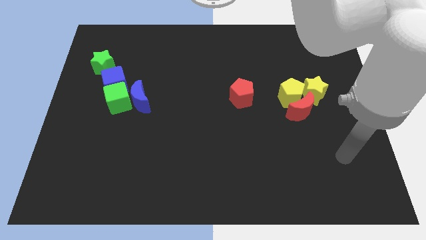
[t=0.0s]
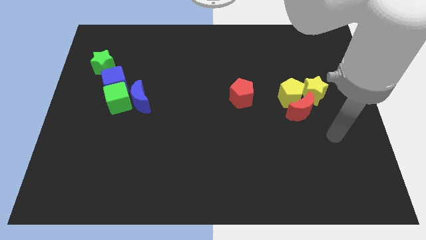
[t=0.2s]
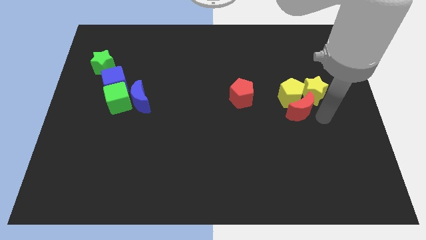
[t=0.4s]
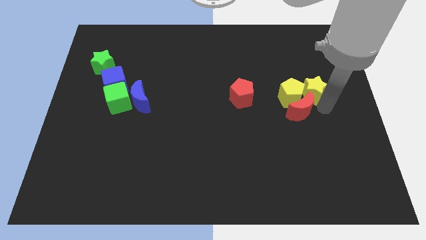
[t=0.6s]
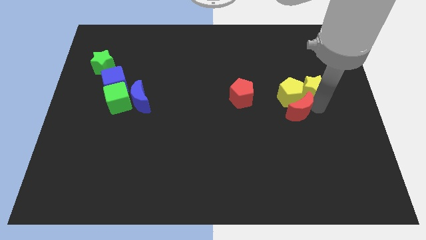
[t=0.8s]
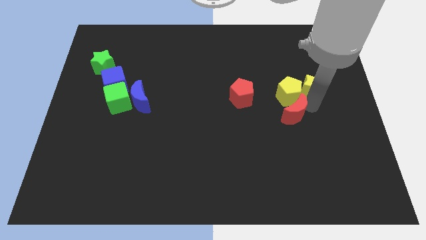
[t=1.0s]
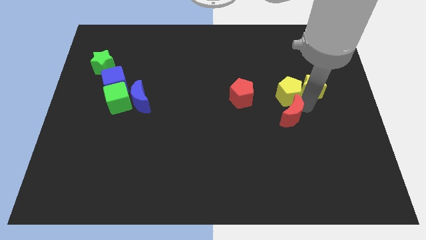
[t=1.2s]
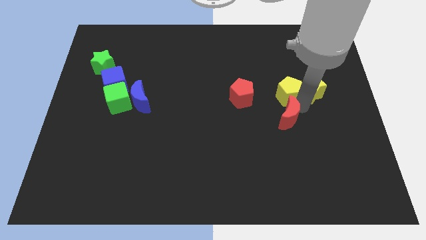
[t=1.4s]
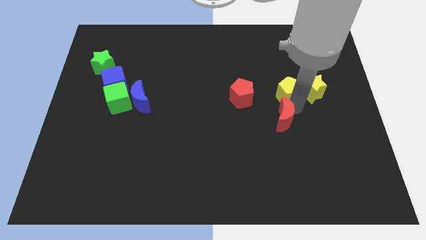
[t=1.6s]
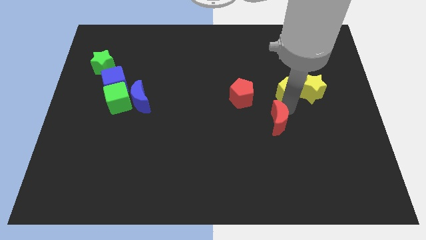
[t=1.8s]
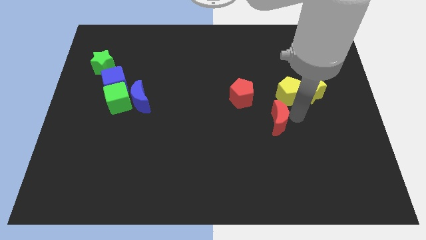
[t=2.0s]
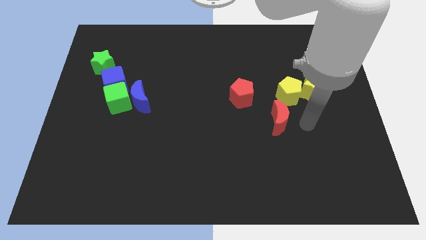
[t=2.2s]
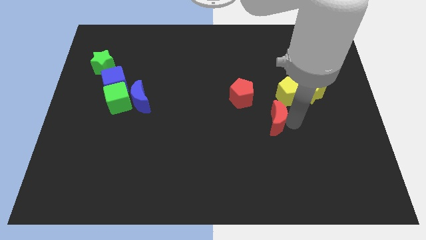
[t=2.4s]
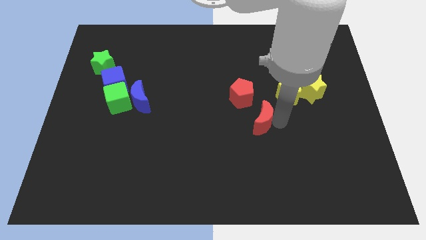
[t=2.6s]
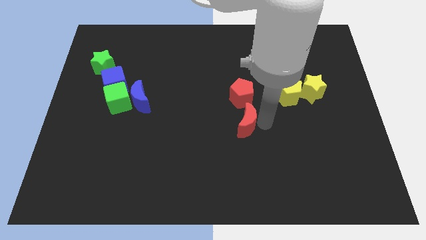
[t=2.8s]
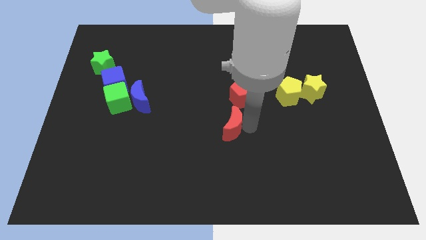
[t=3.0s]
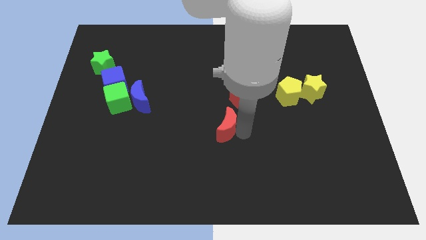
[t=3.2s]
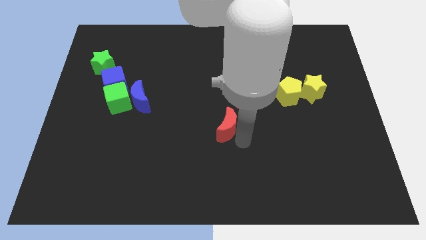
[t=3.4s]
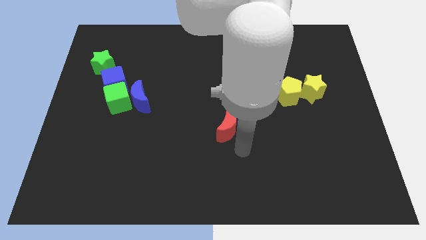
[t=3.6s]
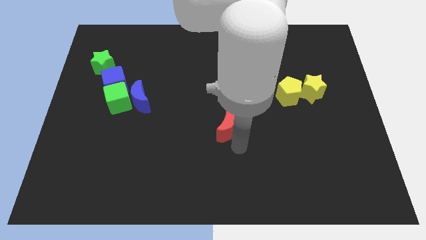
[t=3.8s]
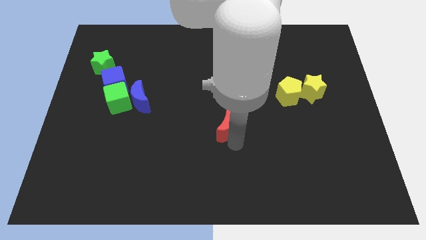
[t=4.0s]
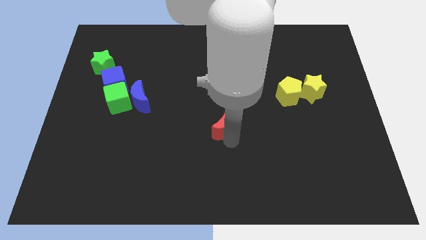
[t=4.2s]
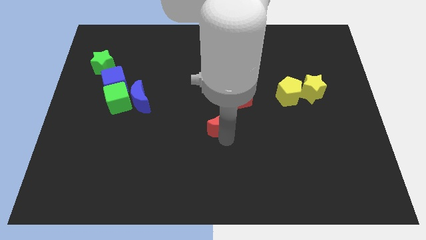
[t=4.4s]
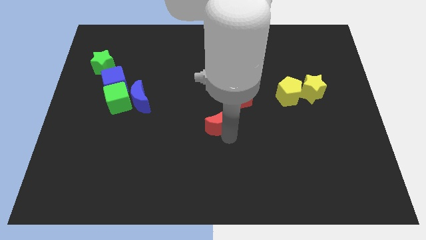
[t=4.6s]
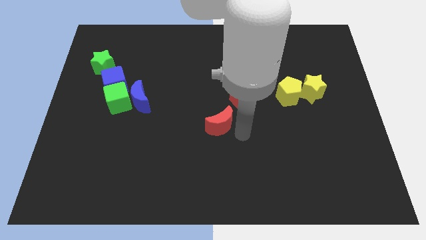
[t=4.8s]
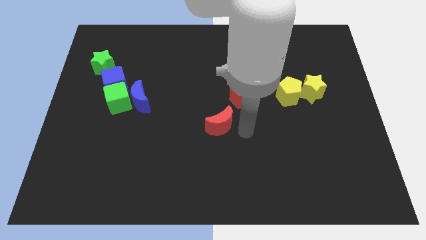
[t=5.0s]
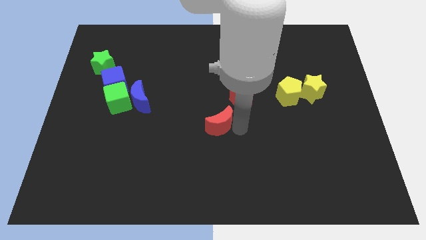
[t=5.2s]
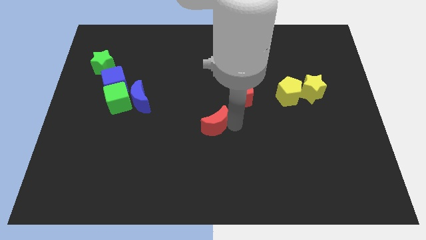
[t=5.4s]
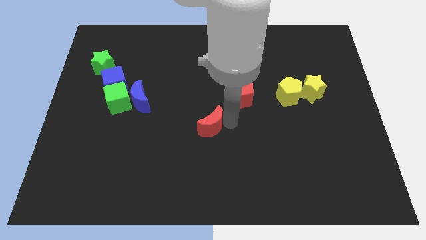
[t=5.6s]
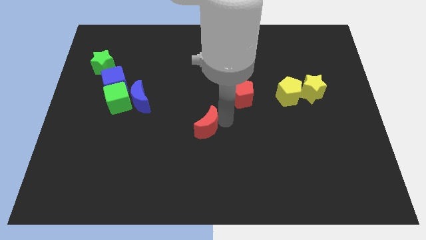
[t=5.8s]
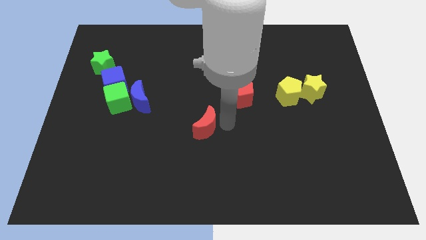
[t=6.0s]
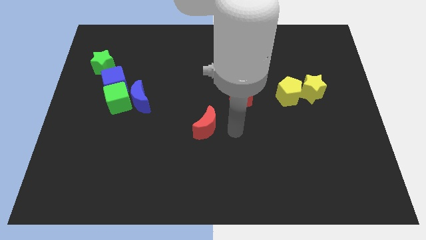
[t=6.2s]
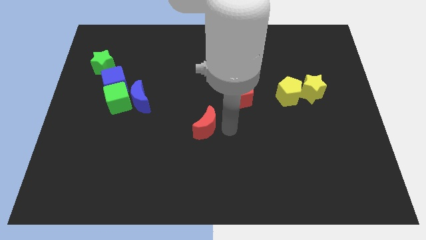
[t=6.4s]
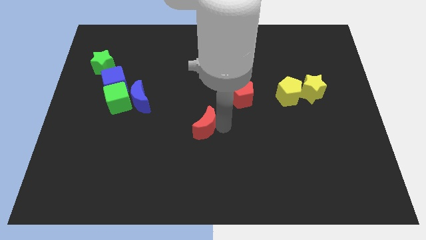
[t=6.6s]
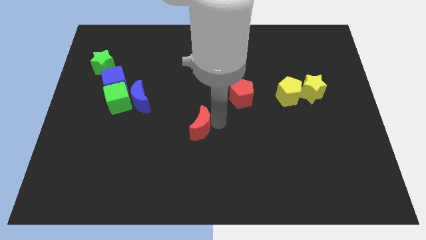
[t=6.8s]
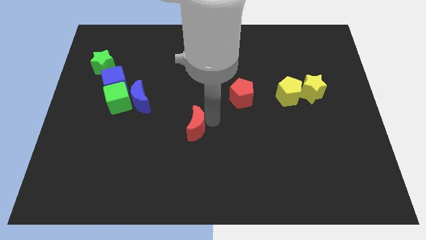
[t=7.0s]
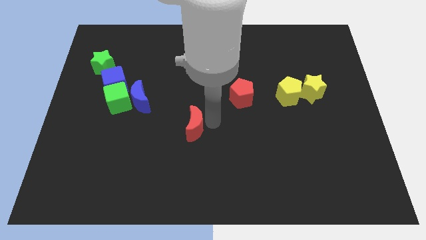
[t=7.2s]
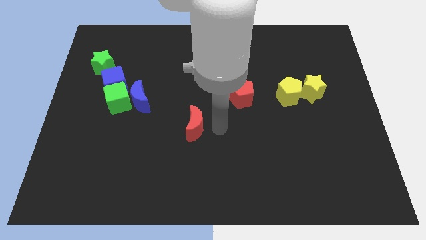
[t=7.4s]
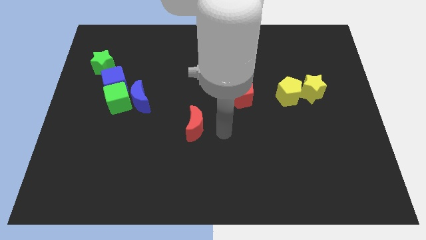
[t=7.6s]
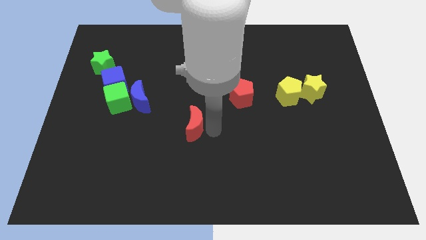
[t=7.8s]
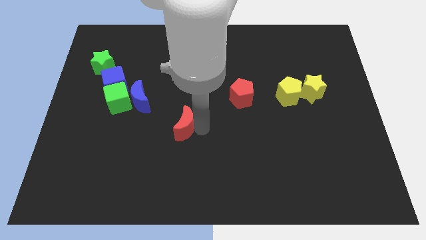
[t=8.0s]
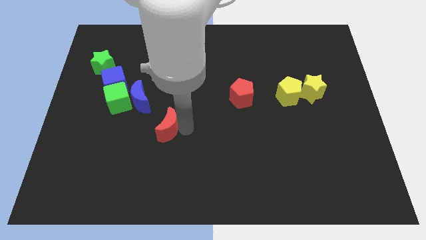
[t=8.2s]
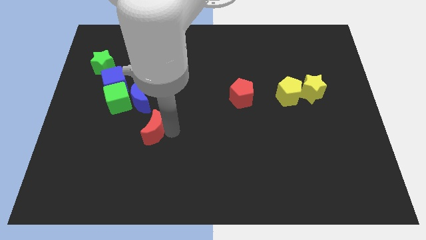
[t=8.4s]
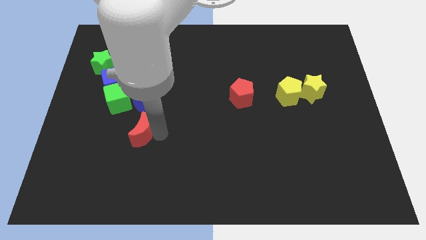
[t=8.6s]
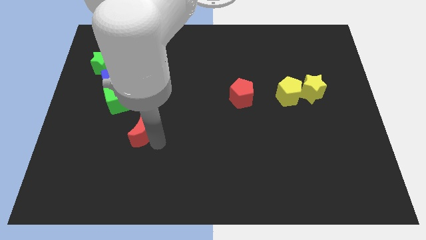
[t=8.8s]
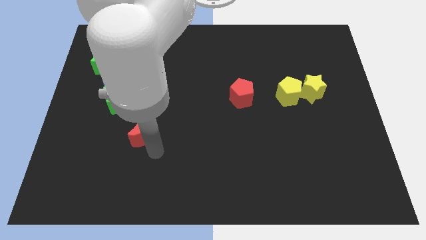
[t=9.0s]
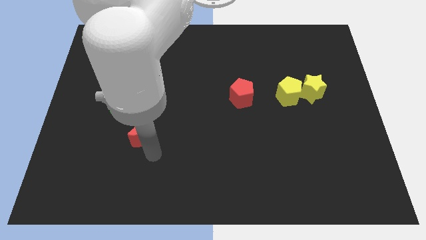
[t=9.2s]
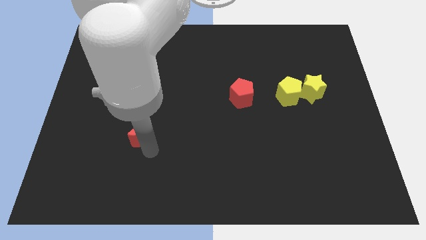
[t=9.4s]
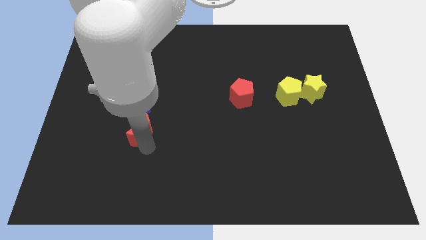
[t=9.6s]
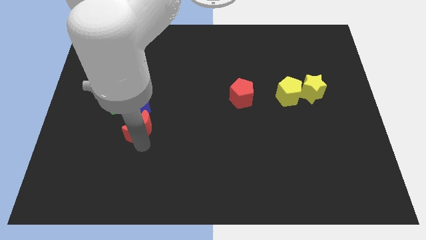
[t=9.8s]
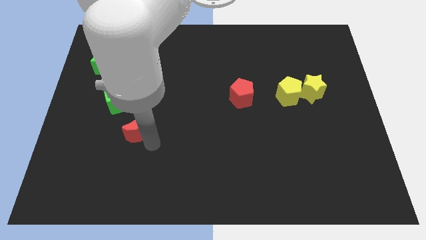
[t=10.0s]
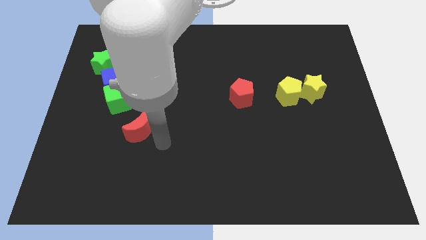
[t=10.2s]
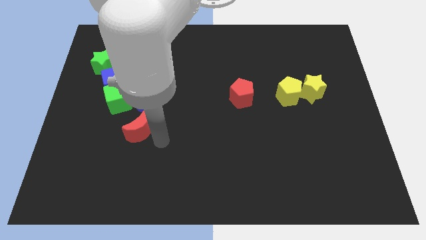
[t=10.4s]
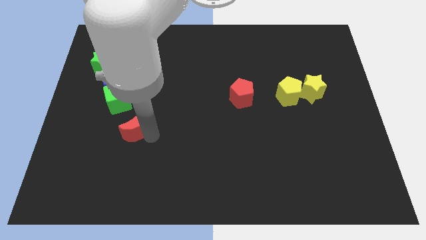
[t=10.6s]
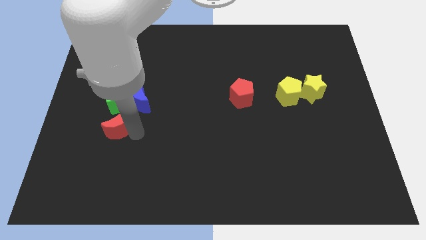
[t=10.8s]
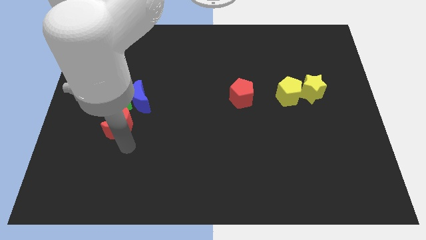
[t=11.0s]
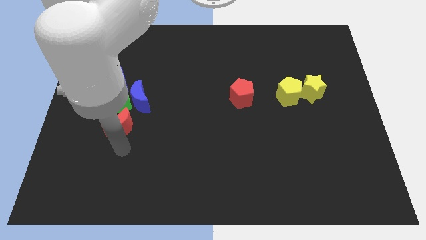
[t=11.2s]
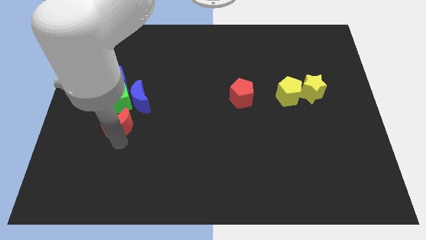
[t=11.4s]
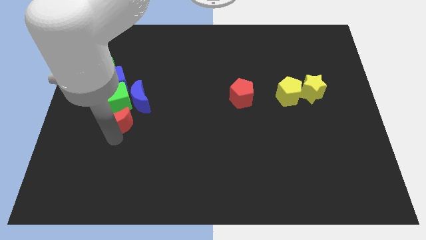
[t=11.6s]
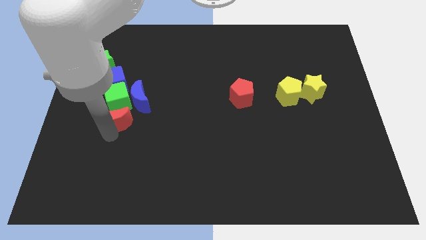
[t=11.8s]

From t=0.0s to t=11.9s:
push the red moon to the green cube
